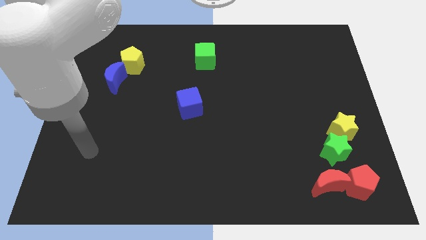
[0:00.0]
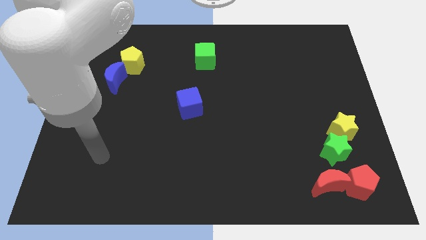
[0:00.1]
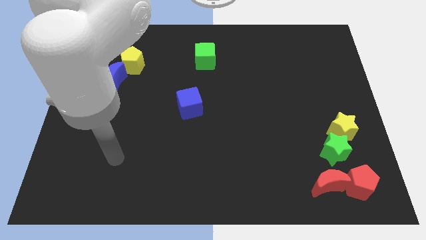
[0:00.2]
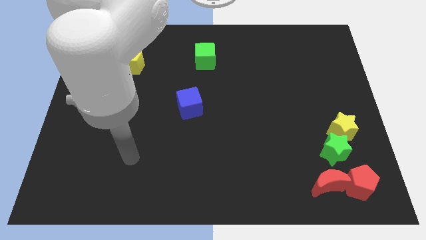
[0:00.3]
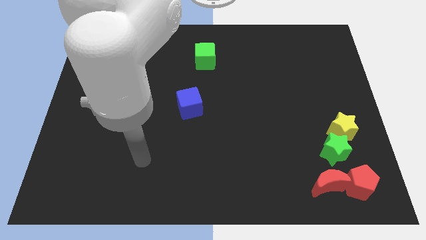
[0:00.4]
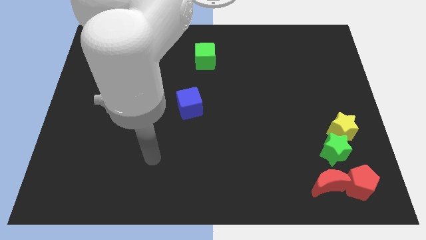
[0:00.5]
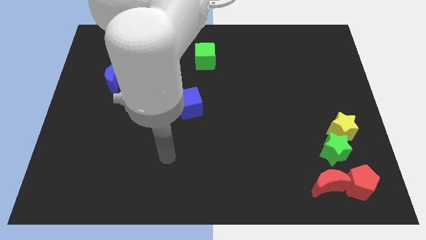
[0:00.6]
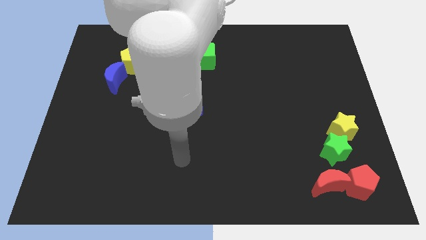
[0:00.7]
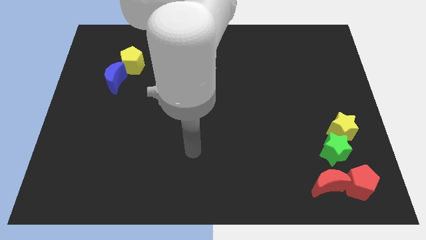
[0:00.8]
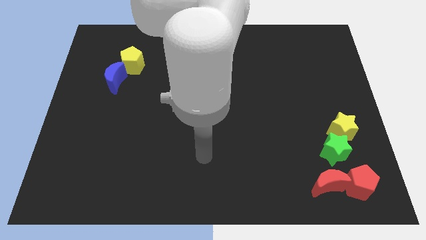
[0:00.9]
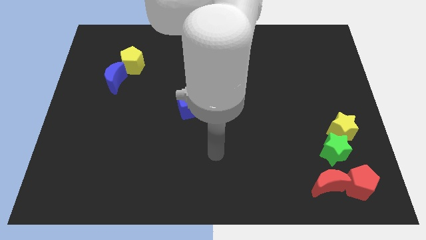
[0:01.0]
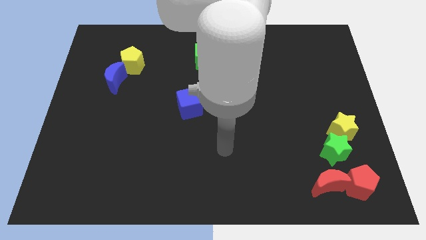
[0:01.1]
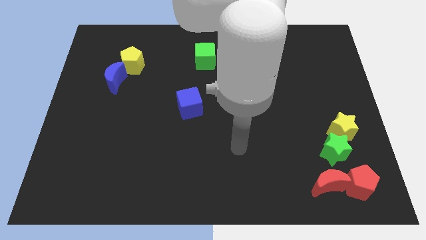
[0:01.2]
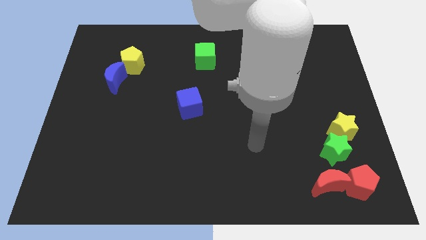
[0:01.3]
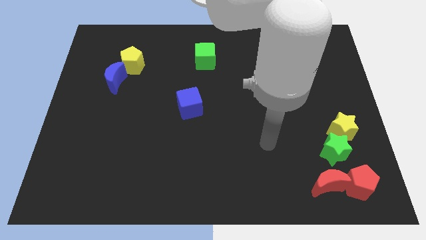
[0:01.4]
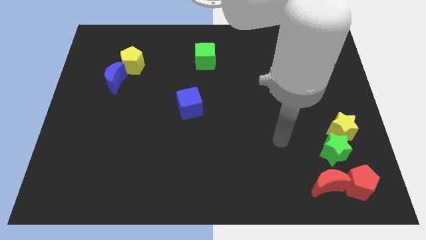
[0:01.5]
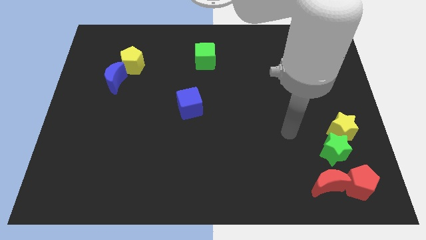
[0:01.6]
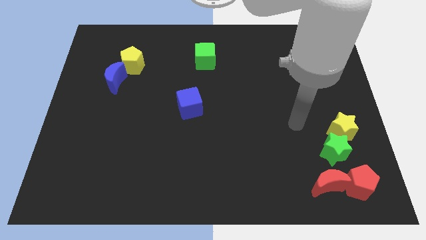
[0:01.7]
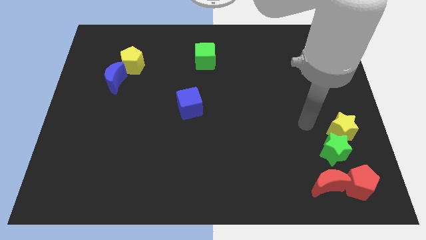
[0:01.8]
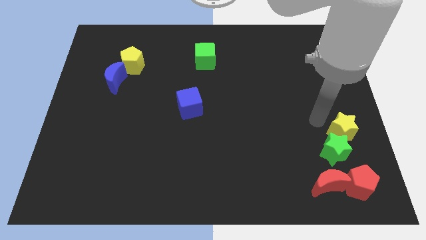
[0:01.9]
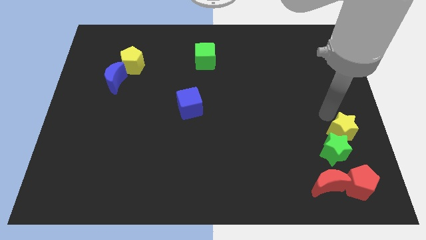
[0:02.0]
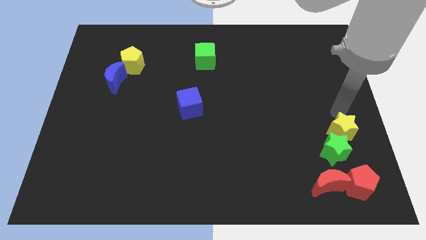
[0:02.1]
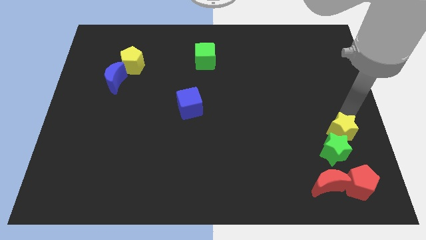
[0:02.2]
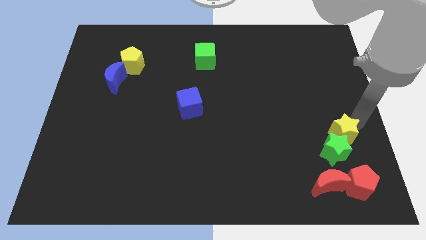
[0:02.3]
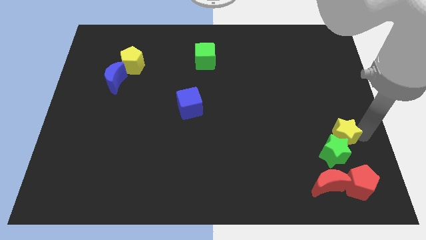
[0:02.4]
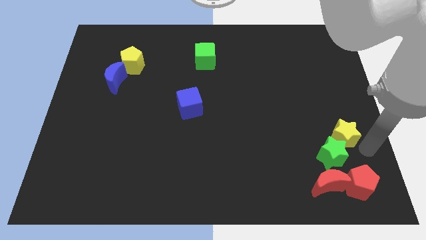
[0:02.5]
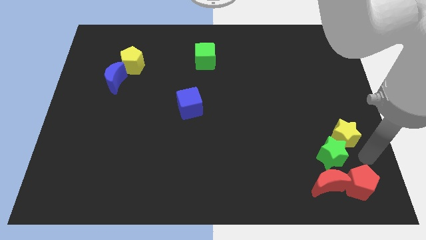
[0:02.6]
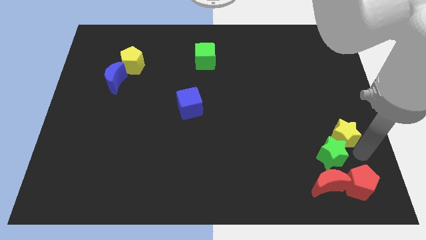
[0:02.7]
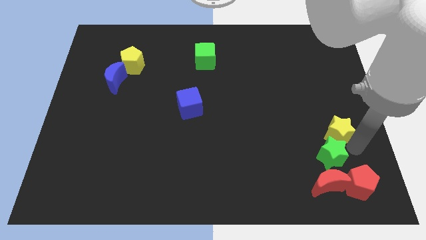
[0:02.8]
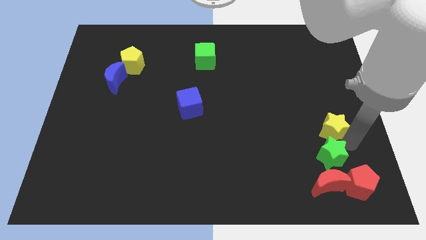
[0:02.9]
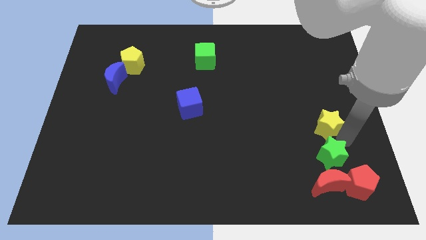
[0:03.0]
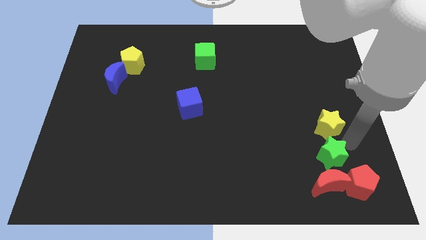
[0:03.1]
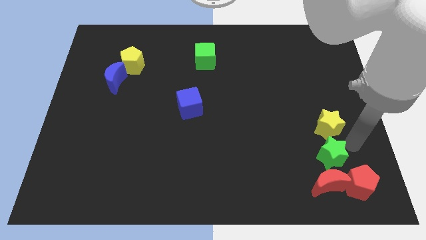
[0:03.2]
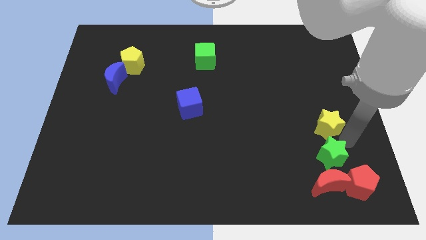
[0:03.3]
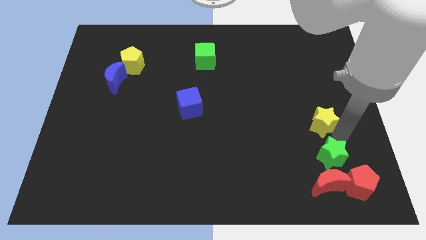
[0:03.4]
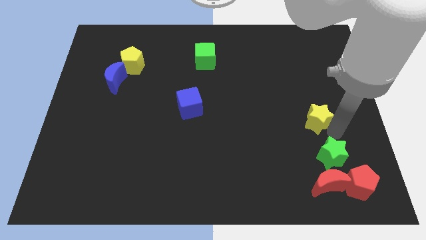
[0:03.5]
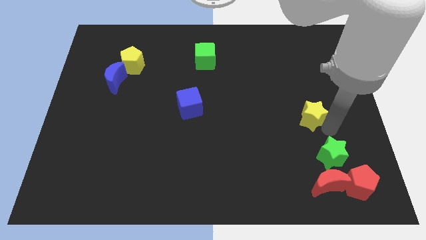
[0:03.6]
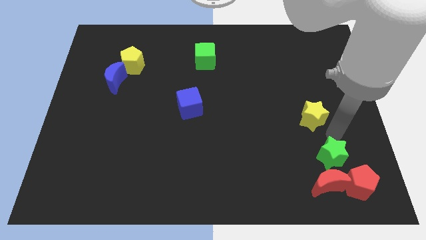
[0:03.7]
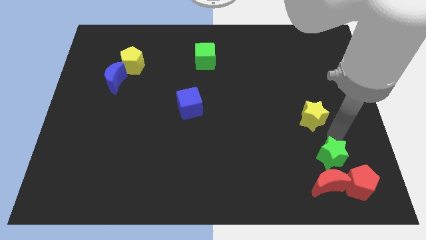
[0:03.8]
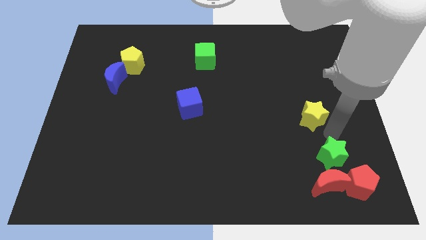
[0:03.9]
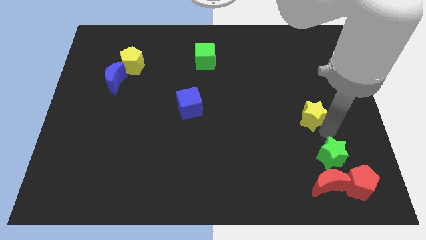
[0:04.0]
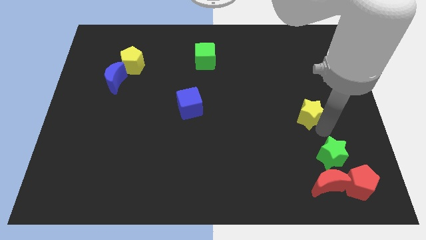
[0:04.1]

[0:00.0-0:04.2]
move the yellow star slightly upwards and to the left diagonally

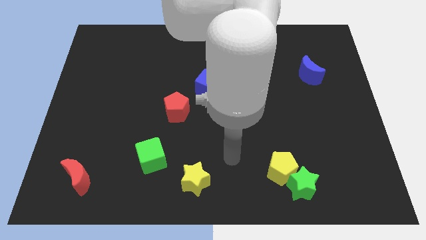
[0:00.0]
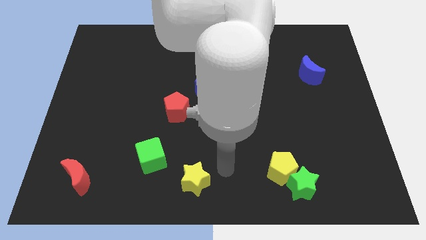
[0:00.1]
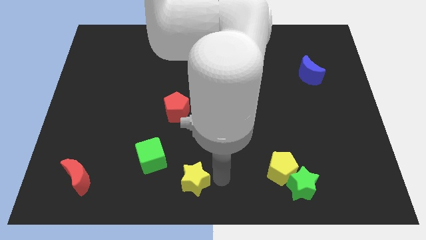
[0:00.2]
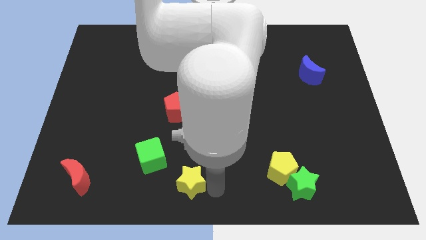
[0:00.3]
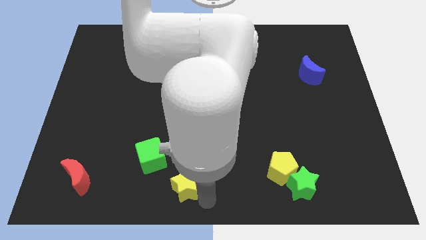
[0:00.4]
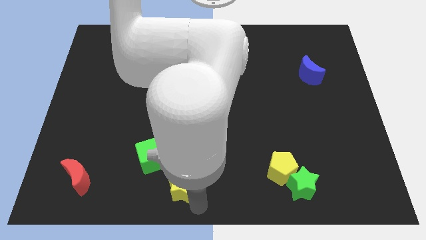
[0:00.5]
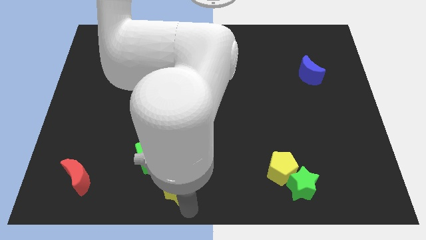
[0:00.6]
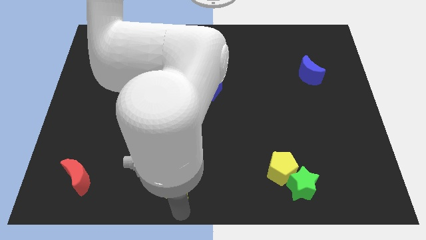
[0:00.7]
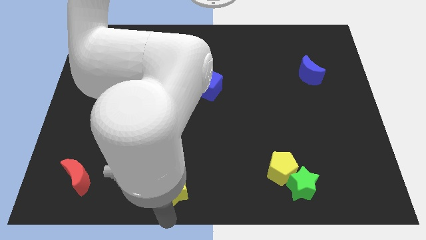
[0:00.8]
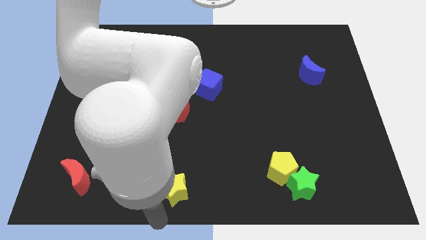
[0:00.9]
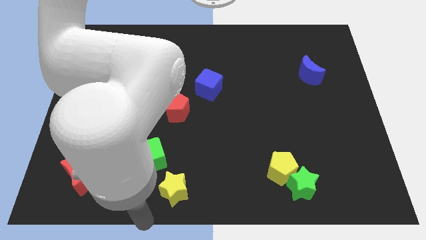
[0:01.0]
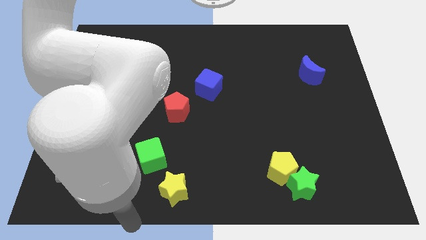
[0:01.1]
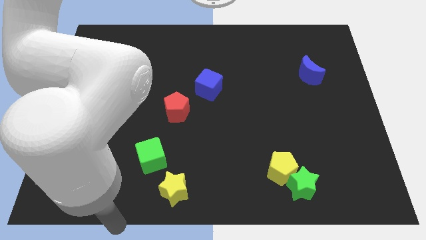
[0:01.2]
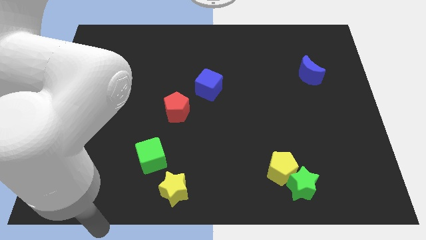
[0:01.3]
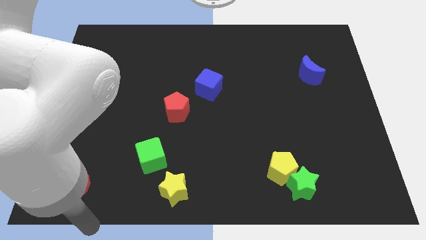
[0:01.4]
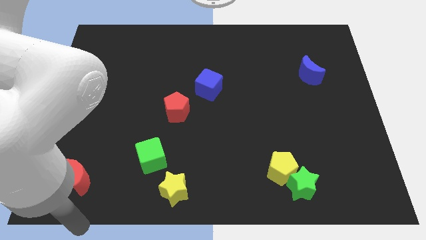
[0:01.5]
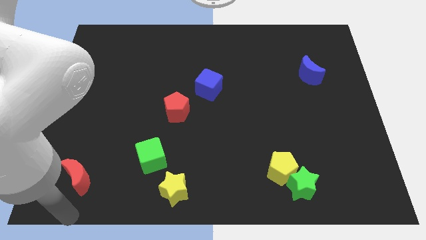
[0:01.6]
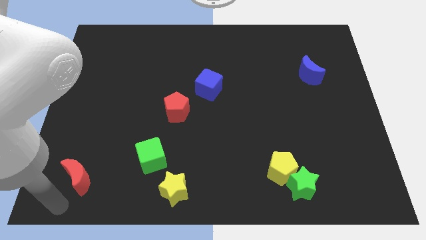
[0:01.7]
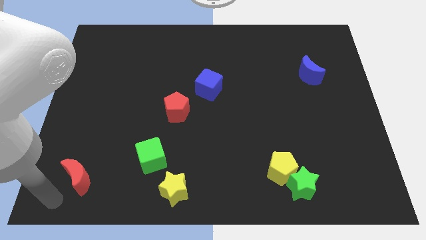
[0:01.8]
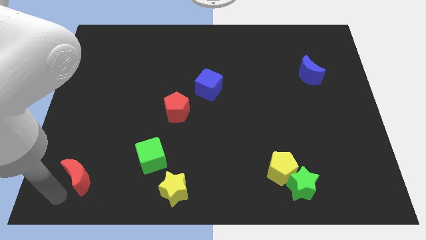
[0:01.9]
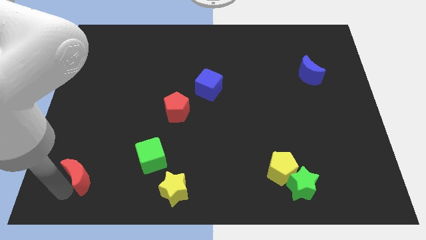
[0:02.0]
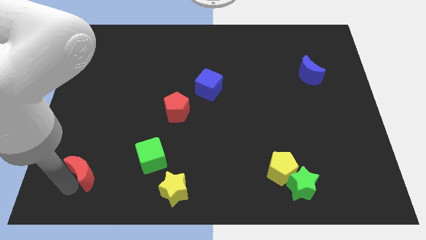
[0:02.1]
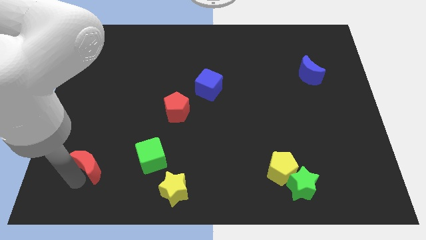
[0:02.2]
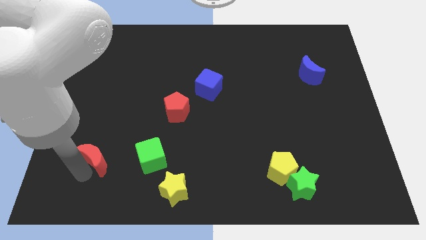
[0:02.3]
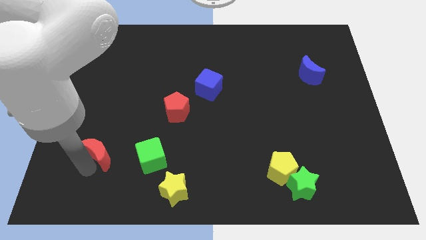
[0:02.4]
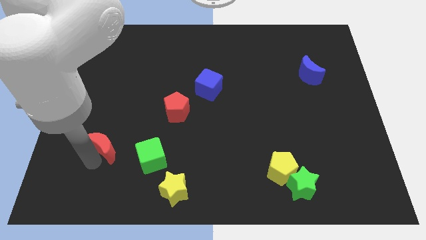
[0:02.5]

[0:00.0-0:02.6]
slightly move the red moon diagonally upwards and right

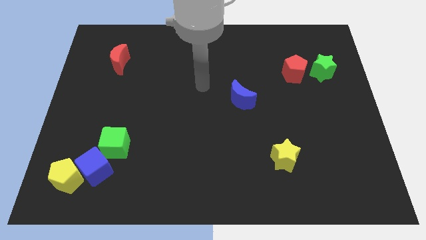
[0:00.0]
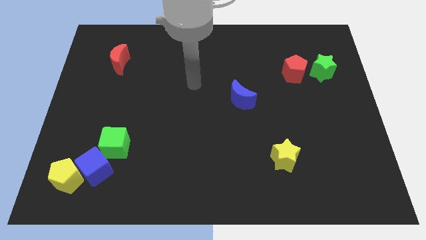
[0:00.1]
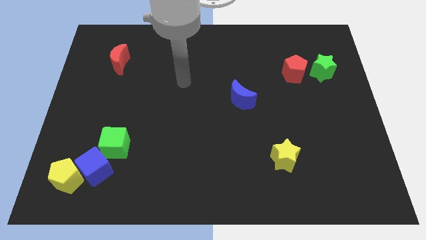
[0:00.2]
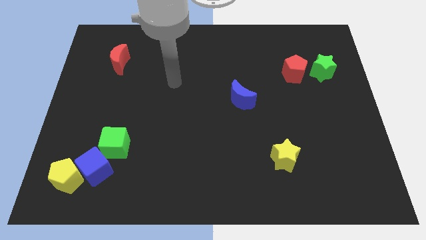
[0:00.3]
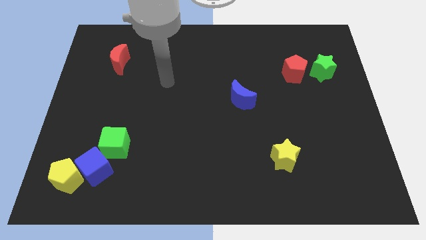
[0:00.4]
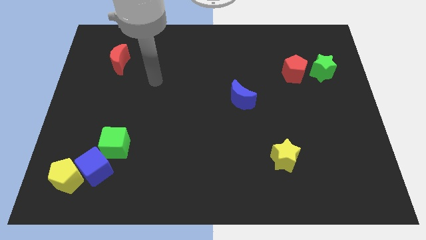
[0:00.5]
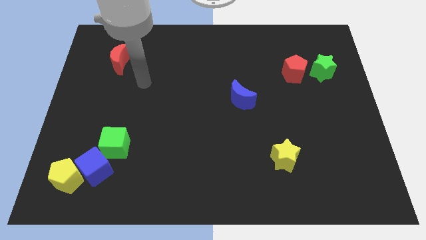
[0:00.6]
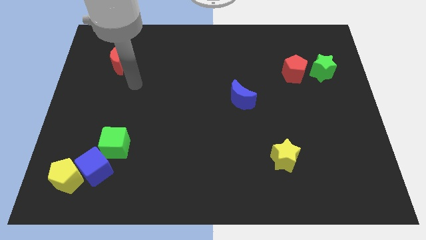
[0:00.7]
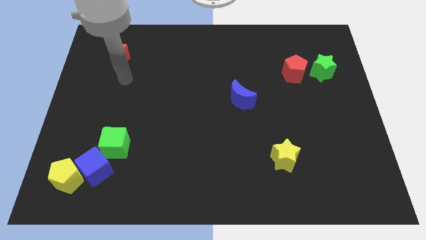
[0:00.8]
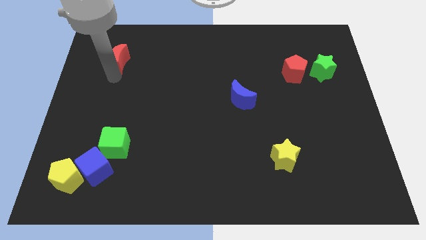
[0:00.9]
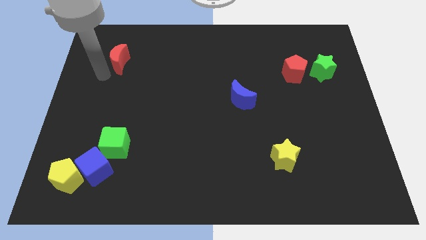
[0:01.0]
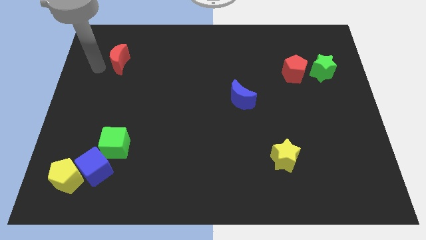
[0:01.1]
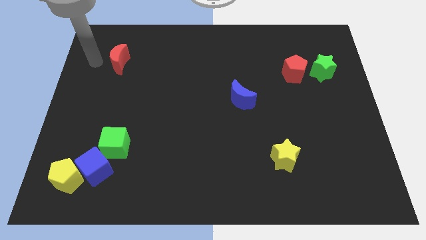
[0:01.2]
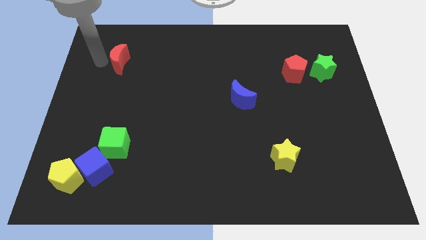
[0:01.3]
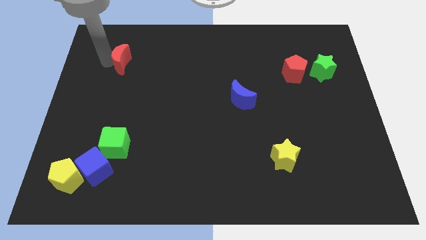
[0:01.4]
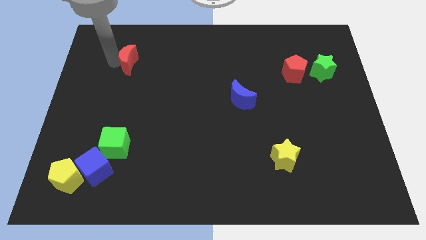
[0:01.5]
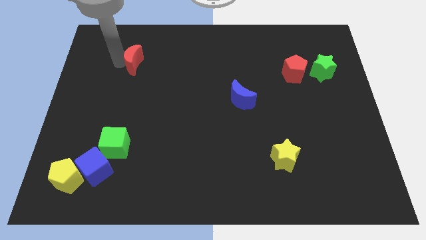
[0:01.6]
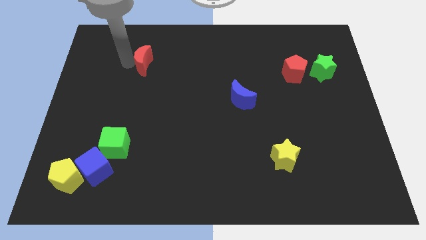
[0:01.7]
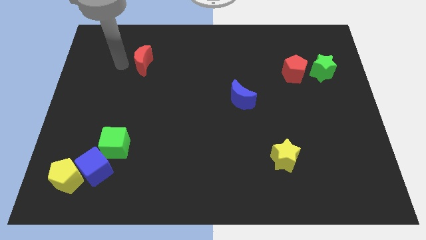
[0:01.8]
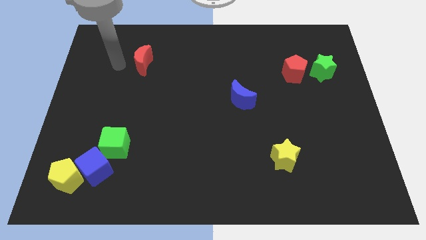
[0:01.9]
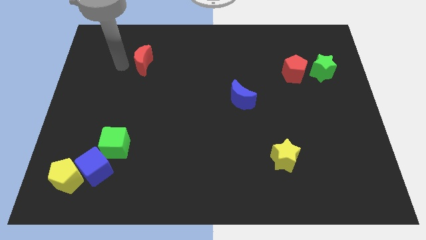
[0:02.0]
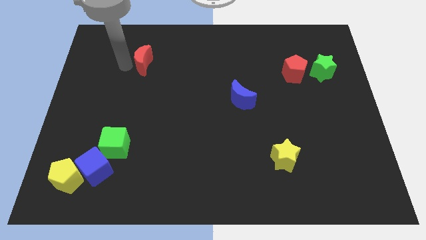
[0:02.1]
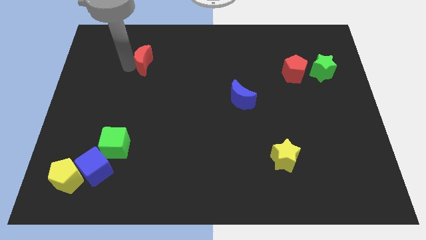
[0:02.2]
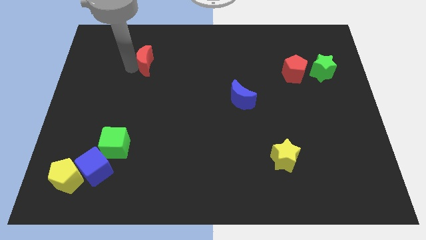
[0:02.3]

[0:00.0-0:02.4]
push the red moon somewhat right
